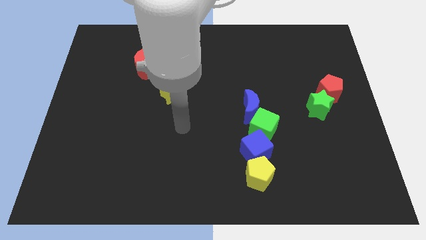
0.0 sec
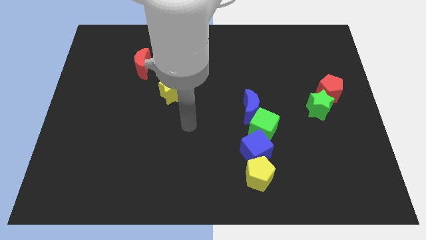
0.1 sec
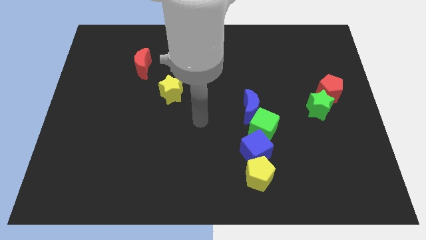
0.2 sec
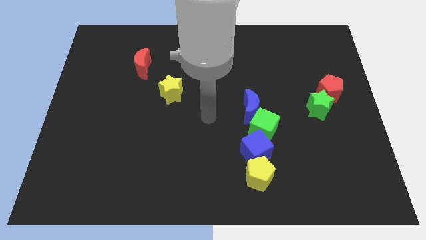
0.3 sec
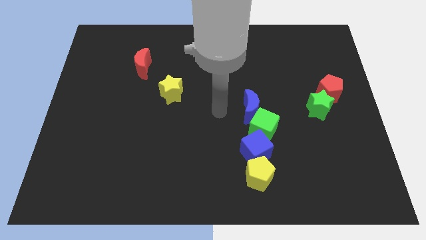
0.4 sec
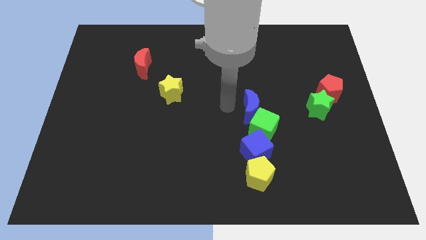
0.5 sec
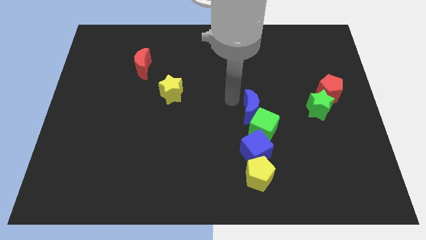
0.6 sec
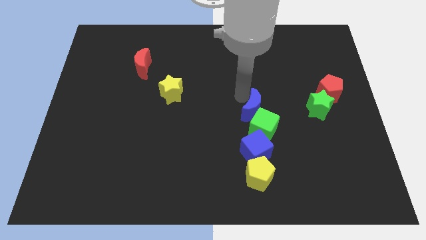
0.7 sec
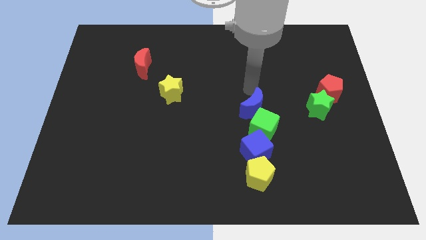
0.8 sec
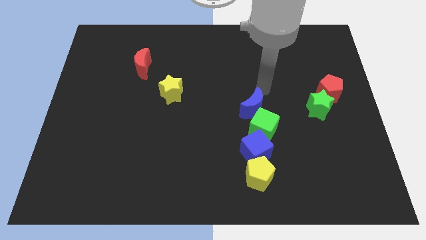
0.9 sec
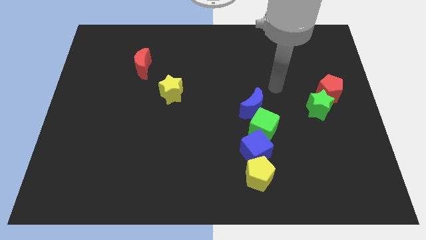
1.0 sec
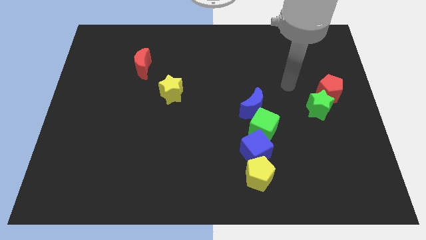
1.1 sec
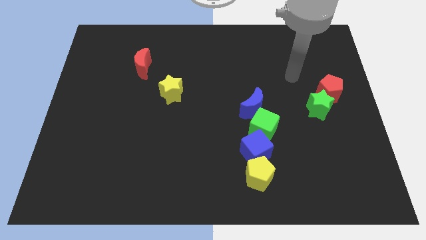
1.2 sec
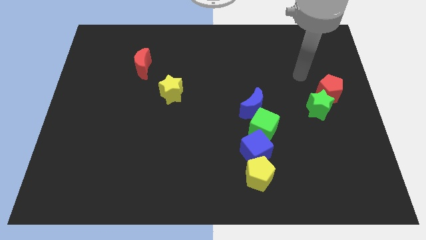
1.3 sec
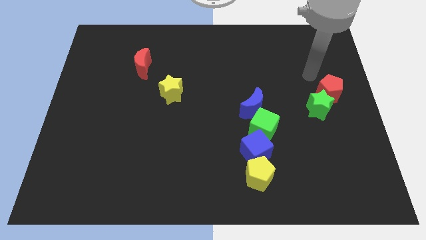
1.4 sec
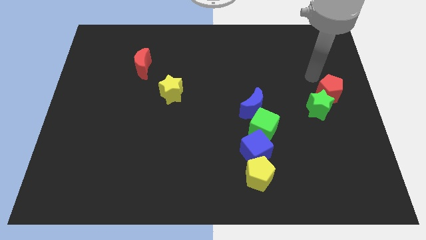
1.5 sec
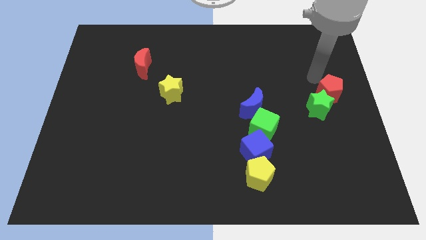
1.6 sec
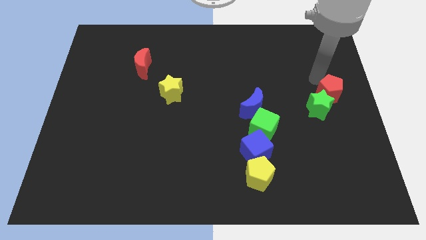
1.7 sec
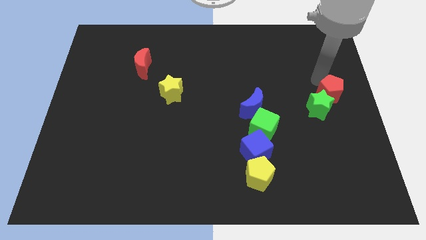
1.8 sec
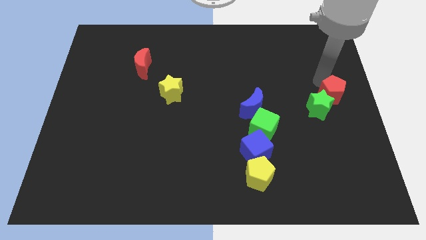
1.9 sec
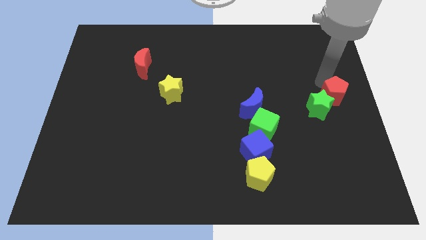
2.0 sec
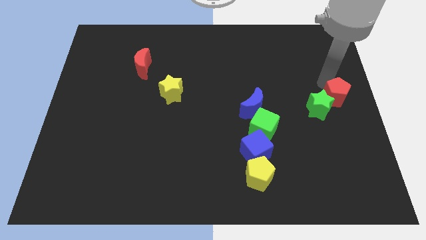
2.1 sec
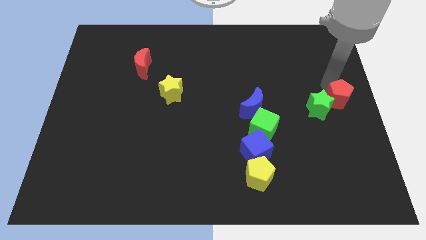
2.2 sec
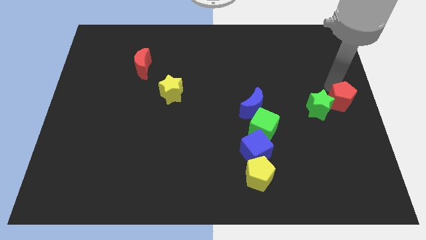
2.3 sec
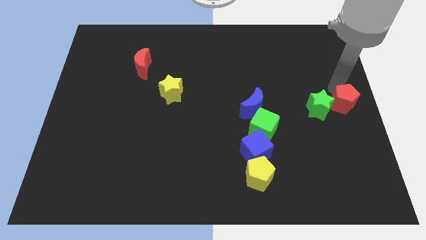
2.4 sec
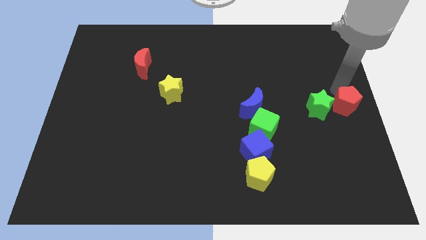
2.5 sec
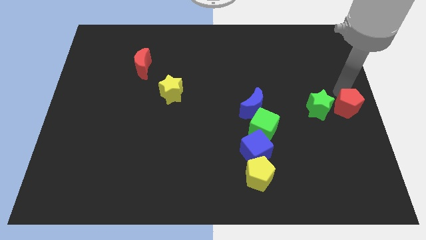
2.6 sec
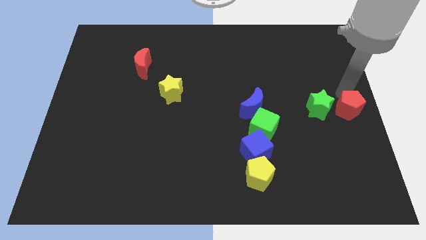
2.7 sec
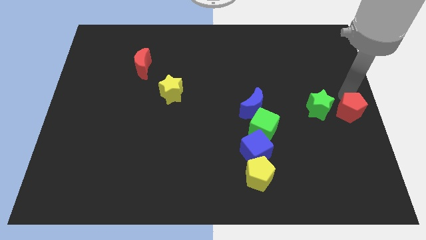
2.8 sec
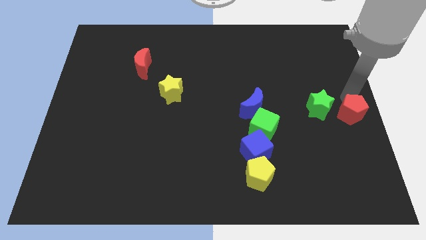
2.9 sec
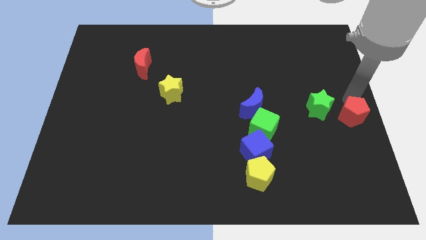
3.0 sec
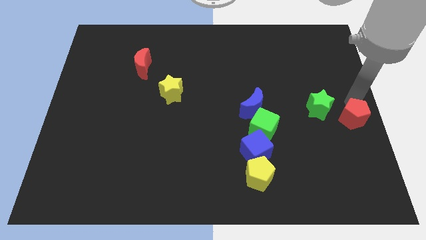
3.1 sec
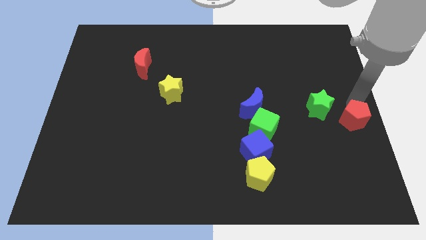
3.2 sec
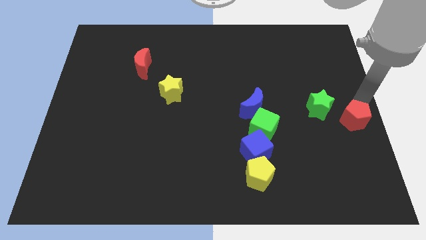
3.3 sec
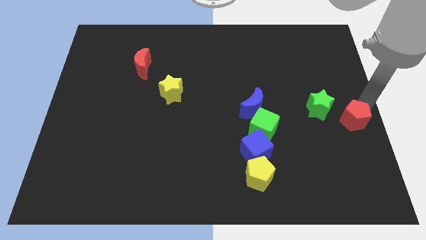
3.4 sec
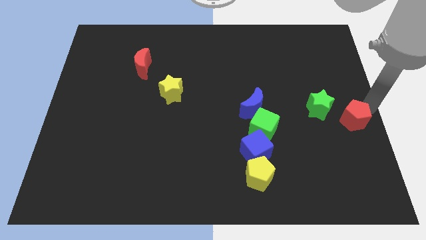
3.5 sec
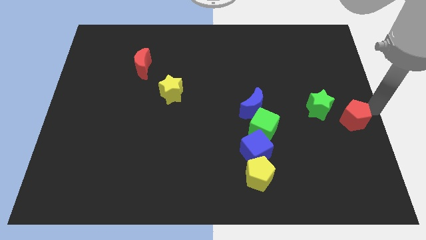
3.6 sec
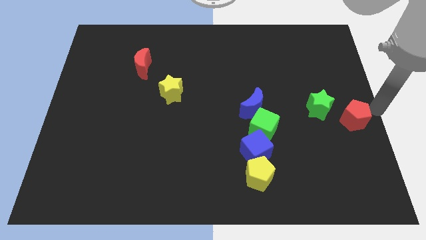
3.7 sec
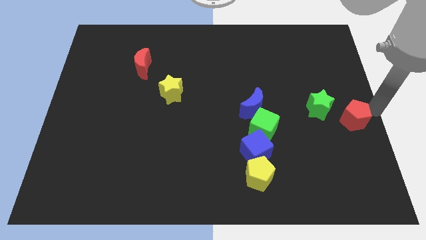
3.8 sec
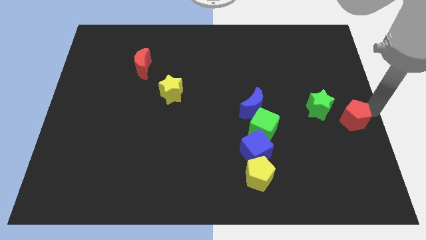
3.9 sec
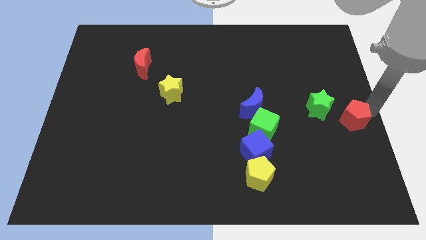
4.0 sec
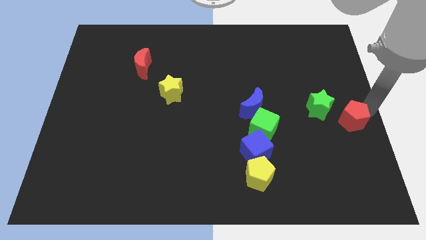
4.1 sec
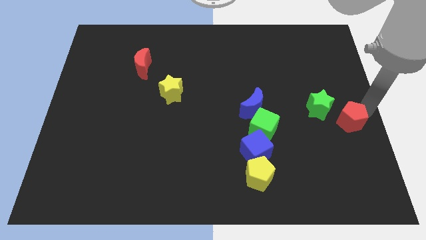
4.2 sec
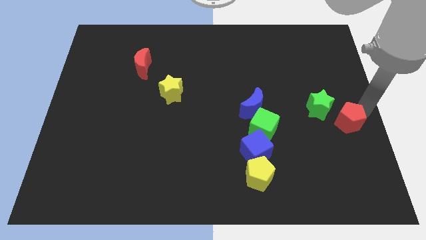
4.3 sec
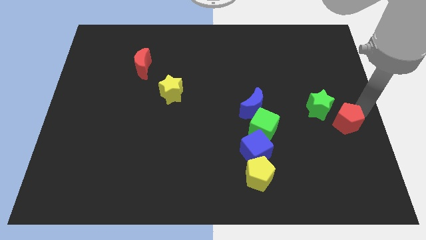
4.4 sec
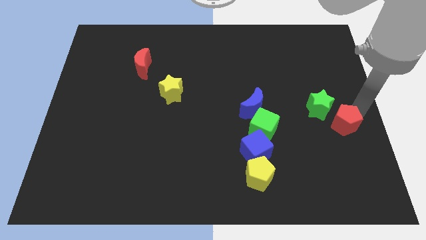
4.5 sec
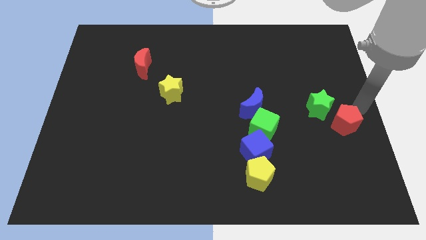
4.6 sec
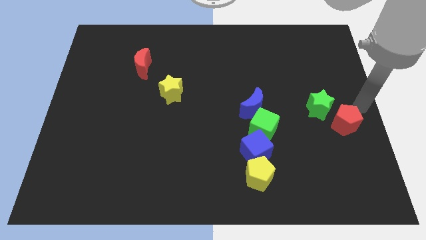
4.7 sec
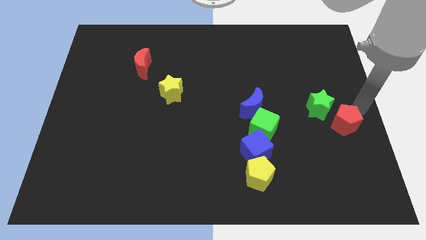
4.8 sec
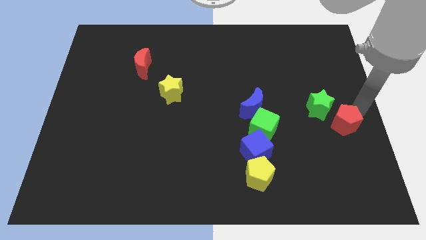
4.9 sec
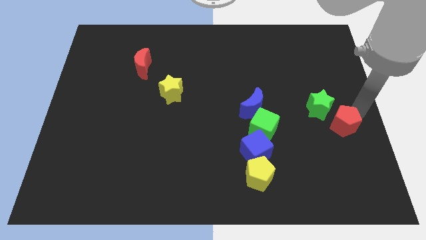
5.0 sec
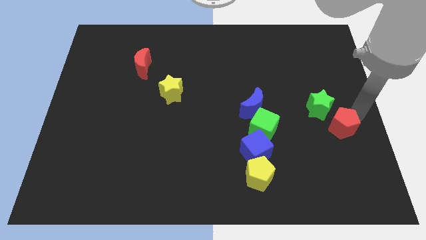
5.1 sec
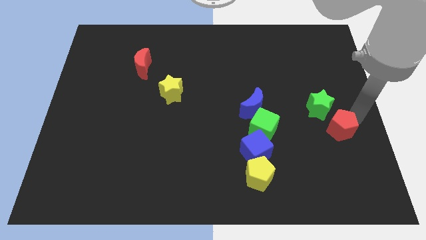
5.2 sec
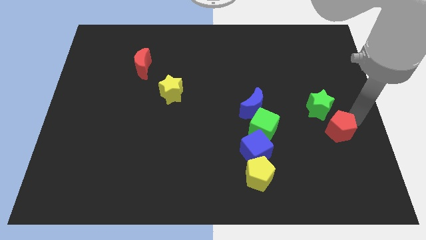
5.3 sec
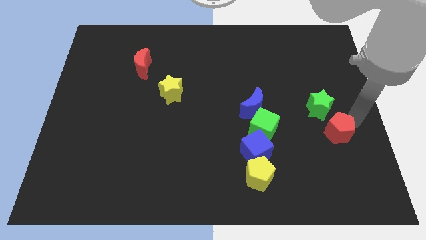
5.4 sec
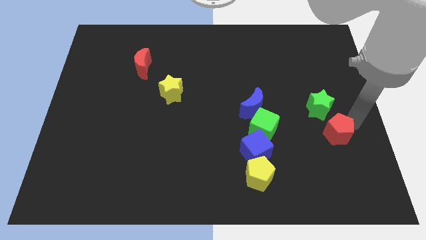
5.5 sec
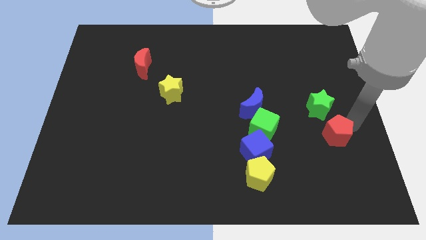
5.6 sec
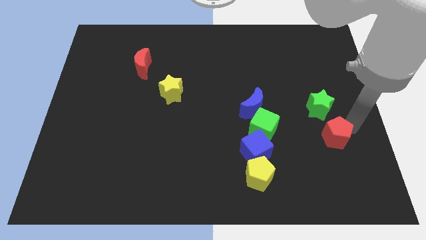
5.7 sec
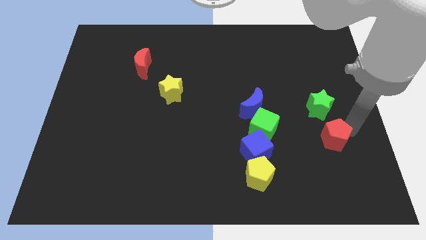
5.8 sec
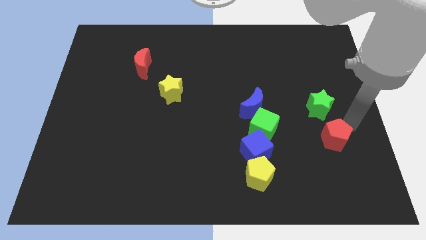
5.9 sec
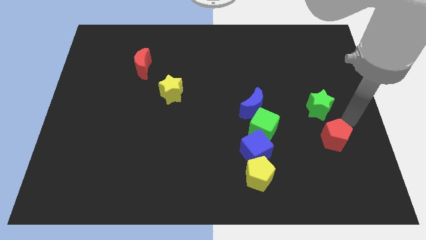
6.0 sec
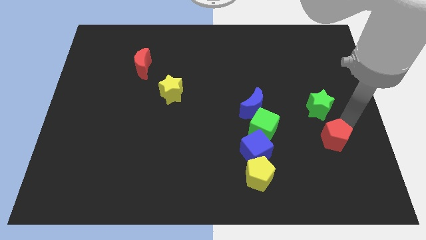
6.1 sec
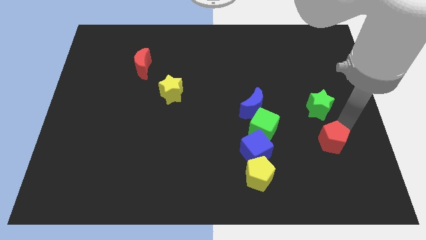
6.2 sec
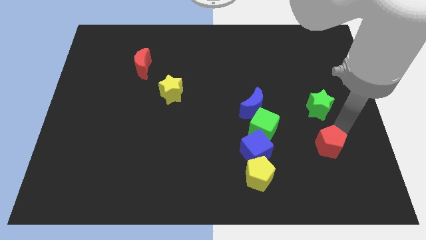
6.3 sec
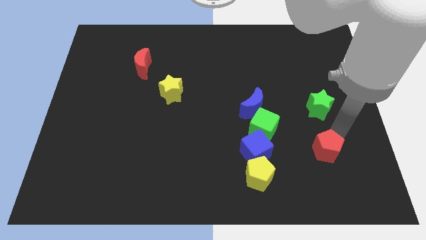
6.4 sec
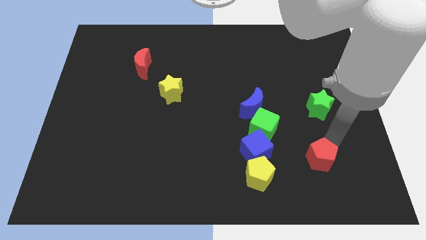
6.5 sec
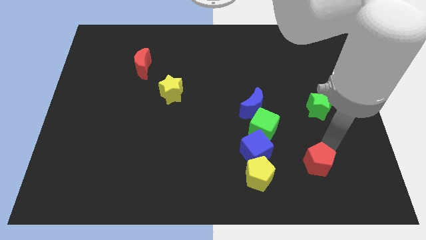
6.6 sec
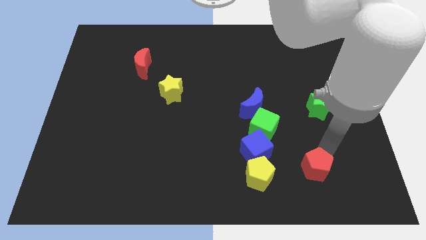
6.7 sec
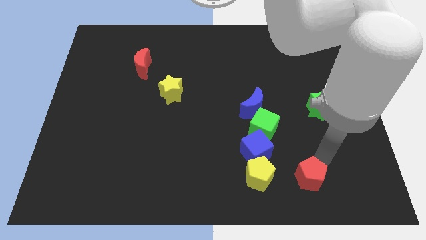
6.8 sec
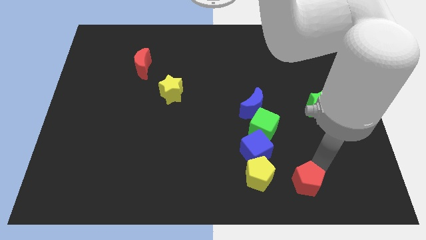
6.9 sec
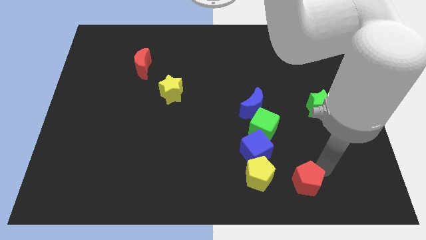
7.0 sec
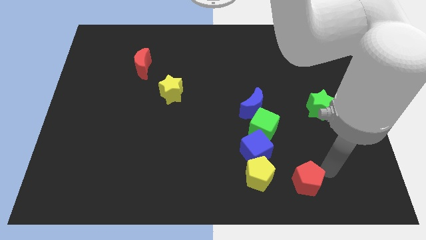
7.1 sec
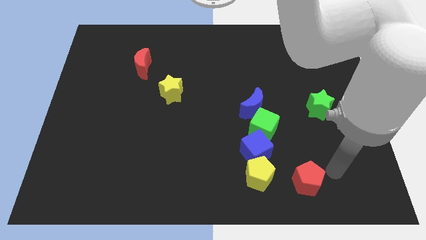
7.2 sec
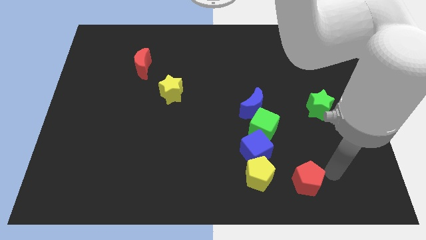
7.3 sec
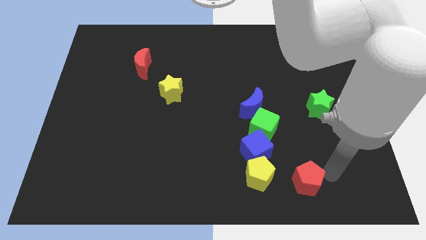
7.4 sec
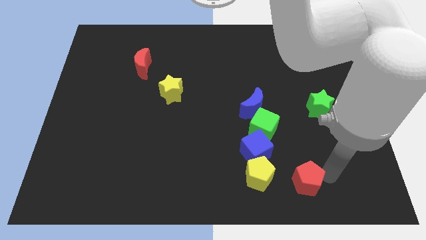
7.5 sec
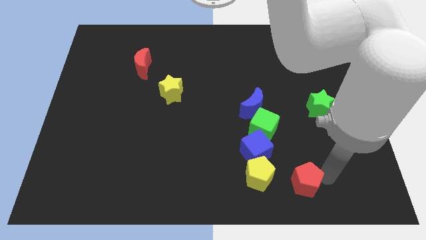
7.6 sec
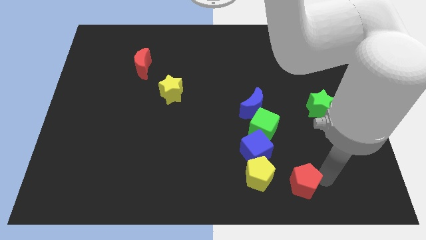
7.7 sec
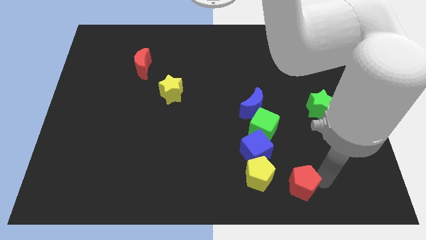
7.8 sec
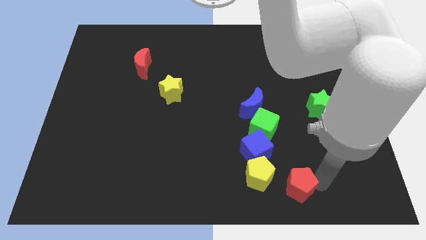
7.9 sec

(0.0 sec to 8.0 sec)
move the red pentagon down and then to the left
